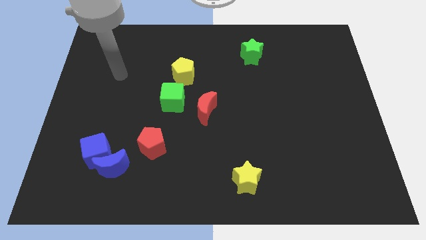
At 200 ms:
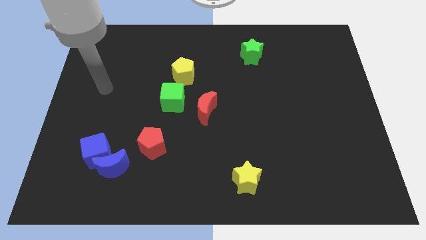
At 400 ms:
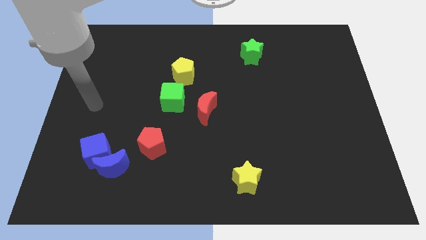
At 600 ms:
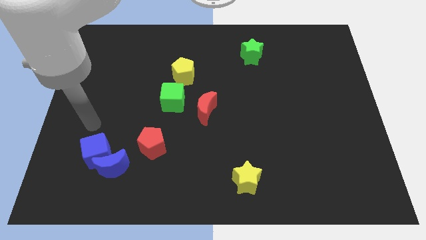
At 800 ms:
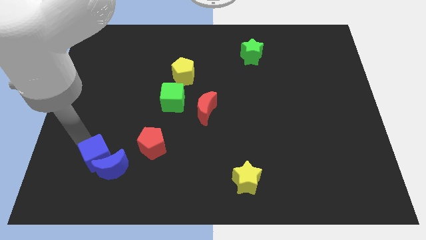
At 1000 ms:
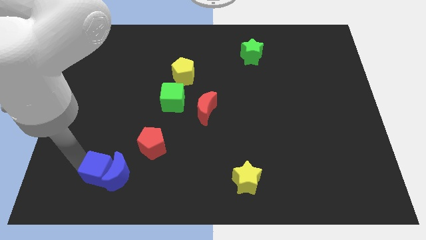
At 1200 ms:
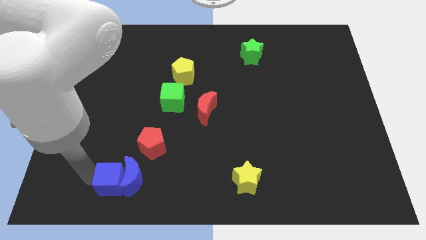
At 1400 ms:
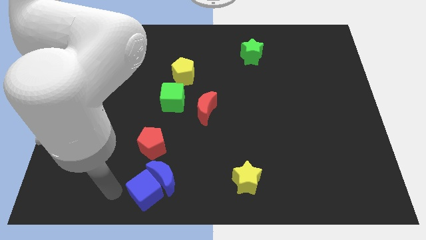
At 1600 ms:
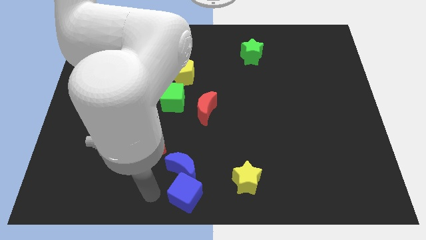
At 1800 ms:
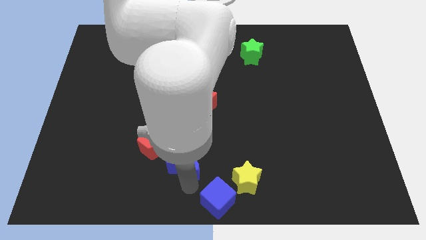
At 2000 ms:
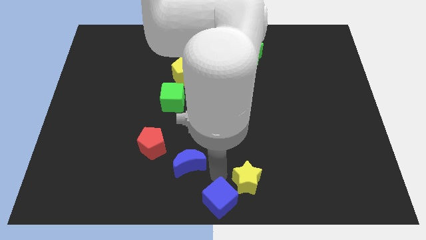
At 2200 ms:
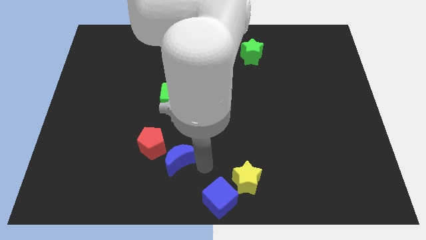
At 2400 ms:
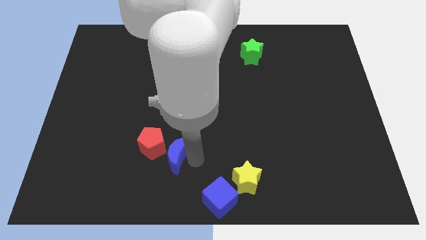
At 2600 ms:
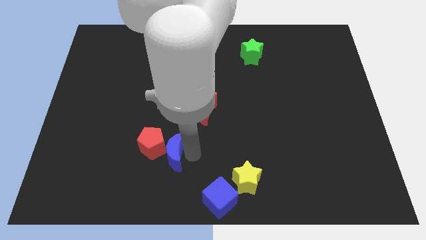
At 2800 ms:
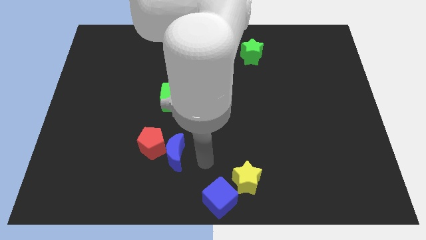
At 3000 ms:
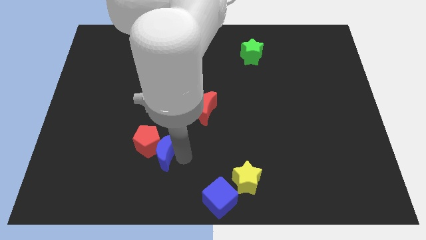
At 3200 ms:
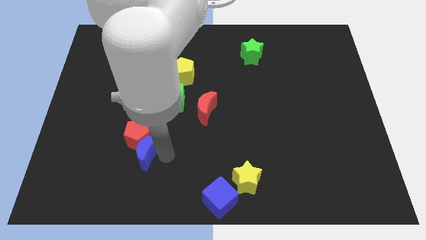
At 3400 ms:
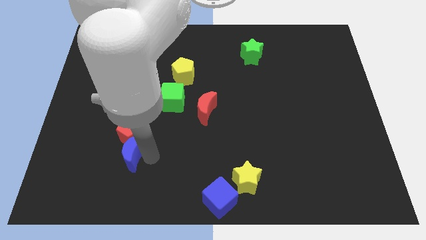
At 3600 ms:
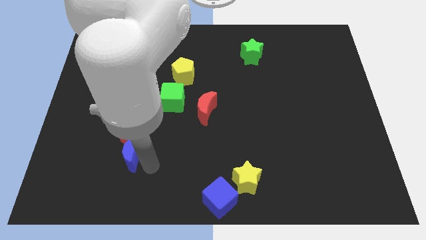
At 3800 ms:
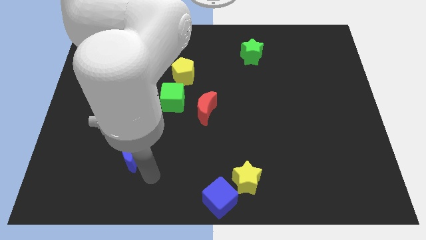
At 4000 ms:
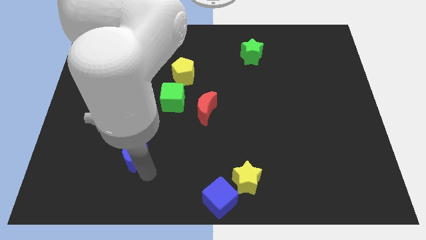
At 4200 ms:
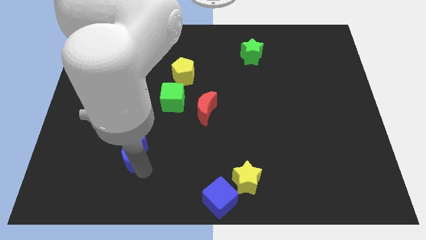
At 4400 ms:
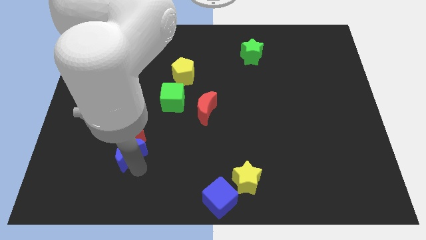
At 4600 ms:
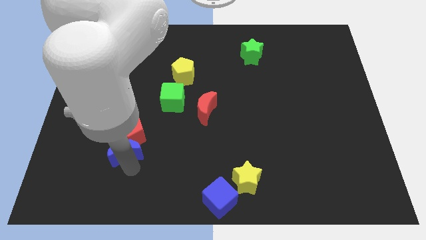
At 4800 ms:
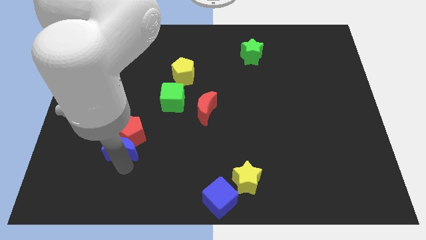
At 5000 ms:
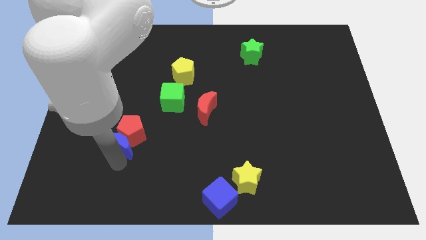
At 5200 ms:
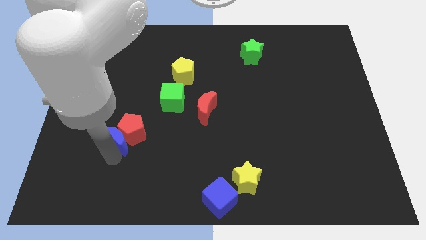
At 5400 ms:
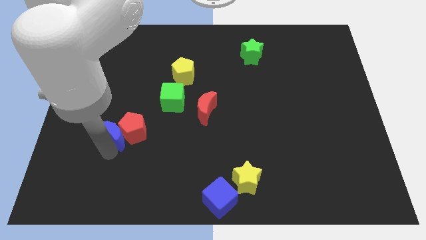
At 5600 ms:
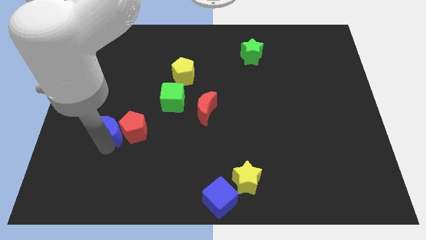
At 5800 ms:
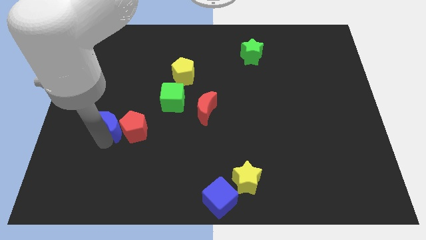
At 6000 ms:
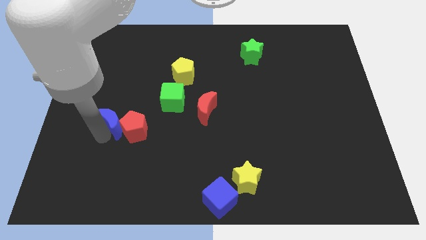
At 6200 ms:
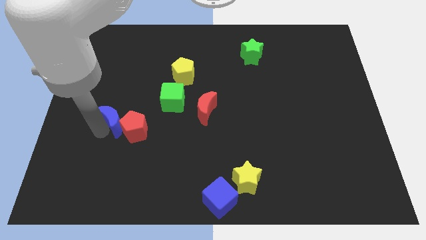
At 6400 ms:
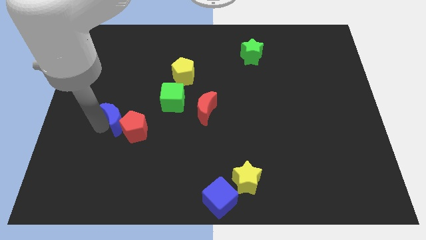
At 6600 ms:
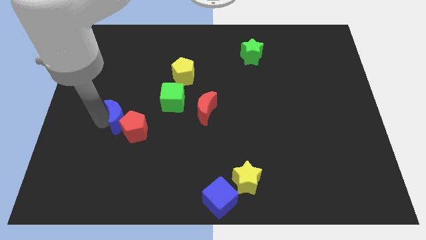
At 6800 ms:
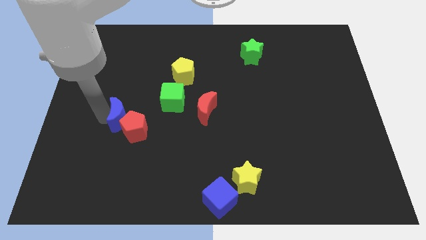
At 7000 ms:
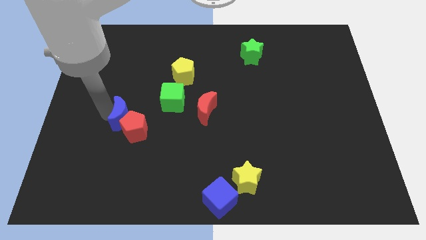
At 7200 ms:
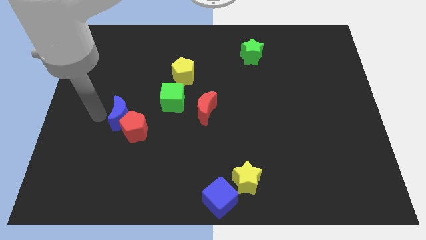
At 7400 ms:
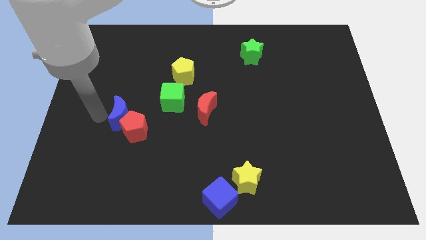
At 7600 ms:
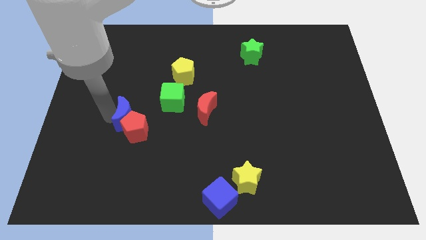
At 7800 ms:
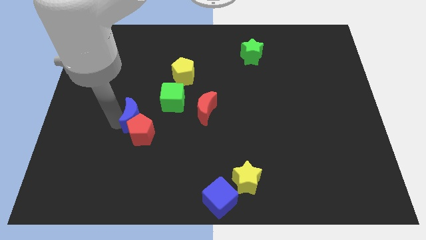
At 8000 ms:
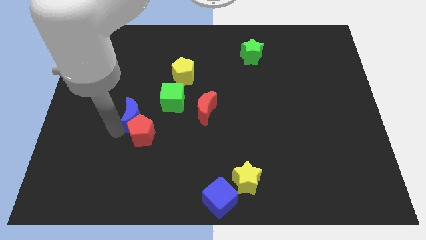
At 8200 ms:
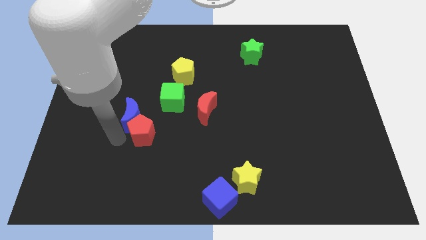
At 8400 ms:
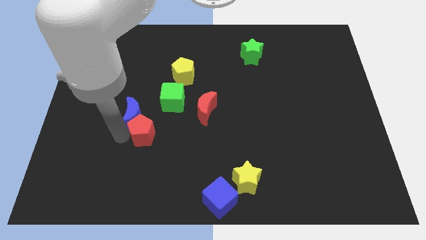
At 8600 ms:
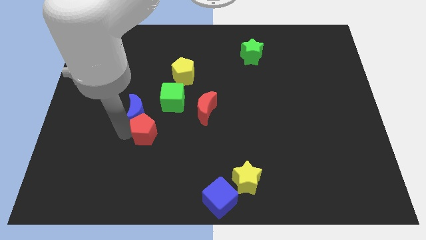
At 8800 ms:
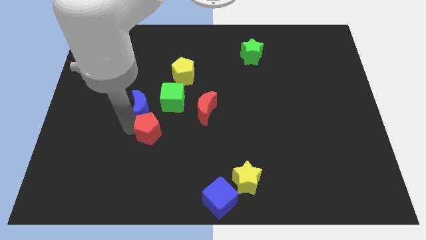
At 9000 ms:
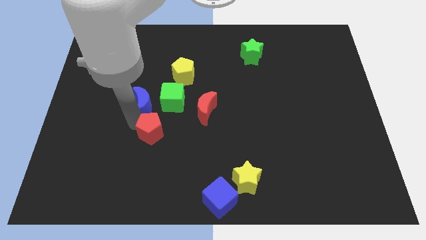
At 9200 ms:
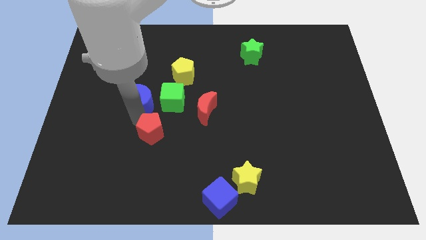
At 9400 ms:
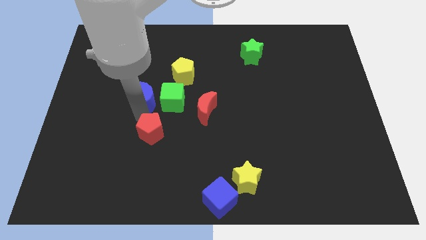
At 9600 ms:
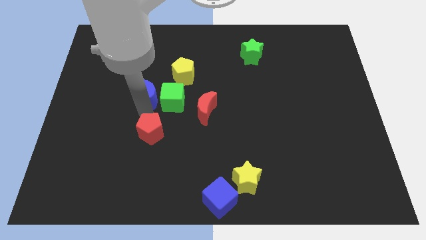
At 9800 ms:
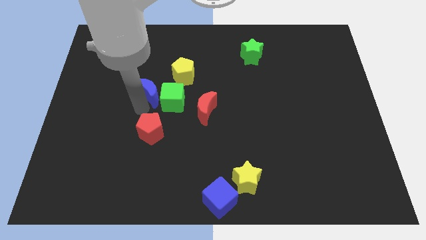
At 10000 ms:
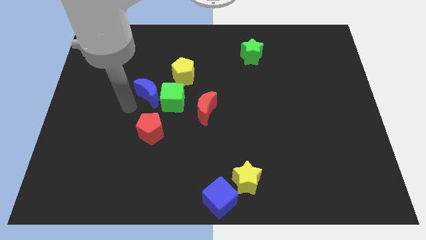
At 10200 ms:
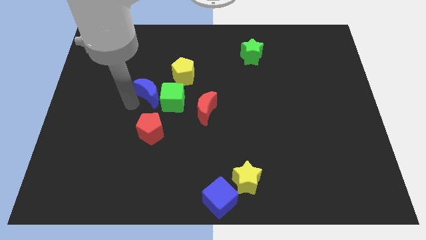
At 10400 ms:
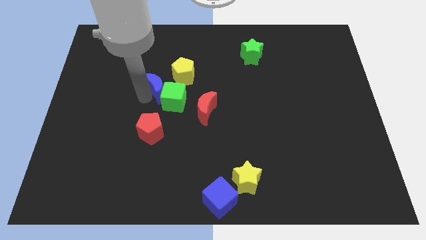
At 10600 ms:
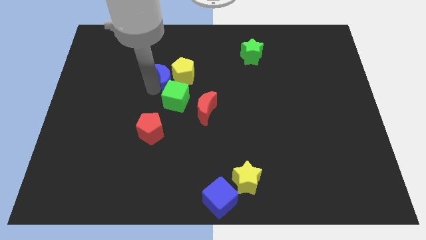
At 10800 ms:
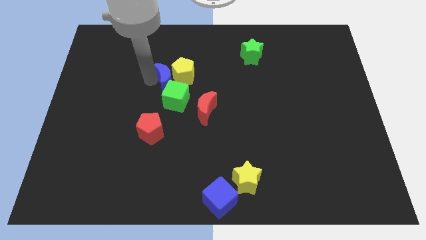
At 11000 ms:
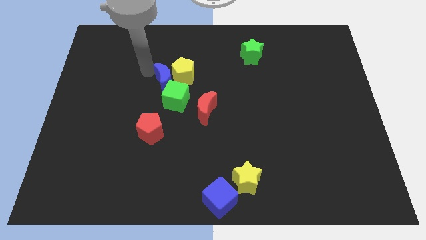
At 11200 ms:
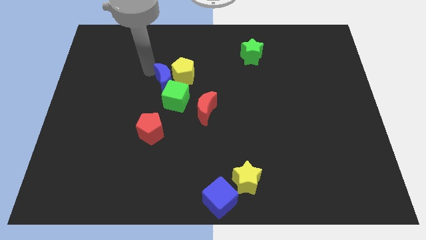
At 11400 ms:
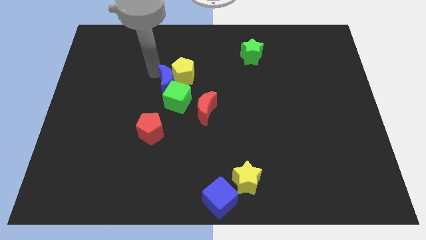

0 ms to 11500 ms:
put the blue moon diagonally up and to the left of the red moon

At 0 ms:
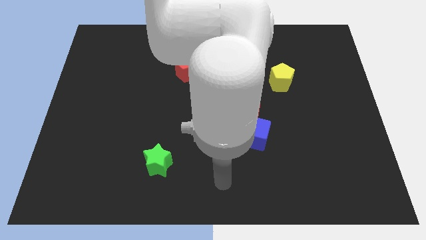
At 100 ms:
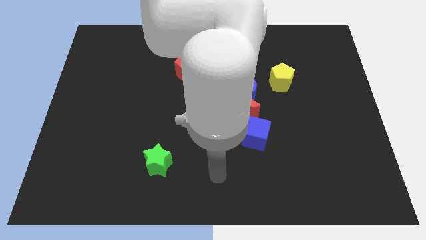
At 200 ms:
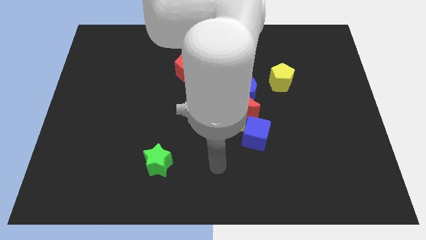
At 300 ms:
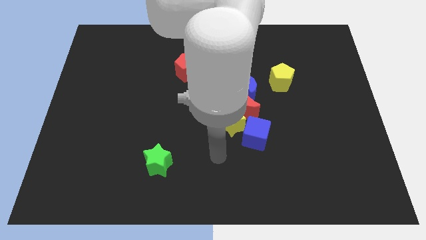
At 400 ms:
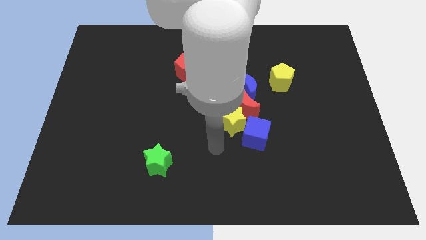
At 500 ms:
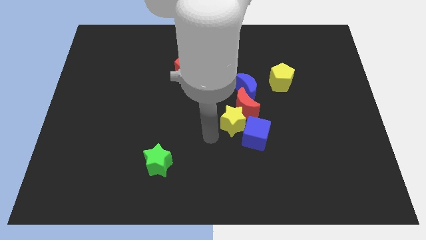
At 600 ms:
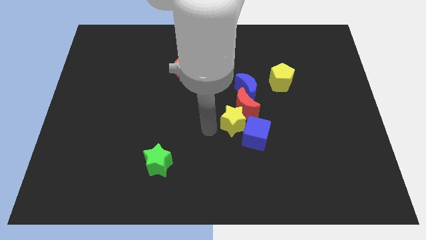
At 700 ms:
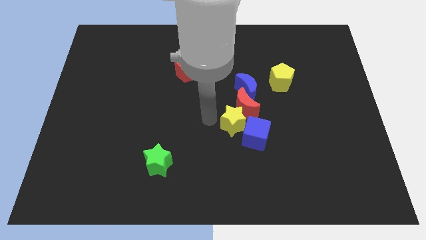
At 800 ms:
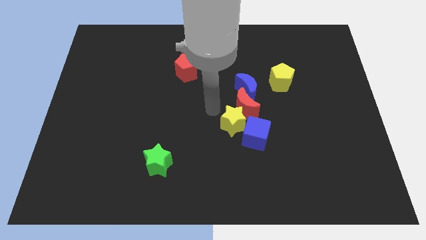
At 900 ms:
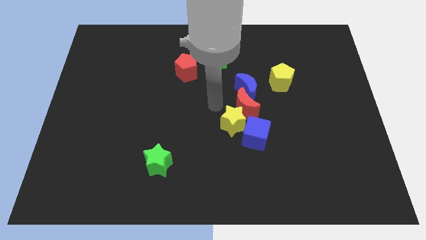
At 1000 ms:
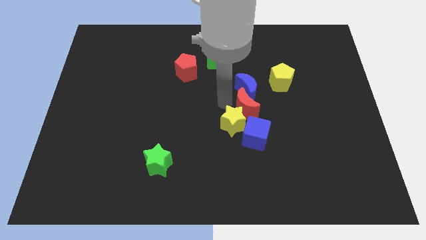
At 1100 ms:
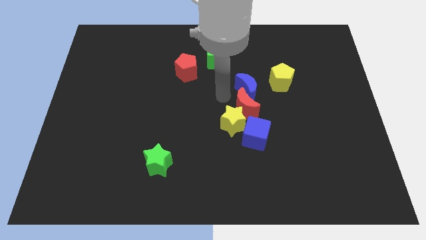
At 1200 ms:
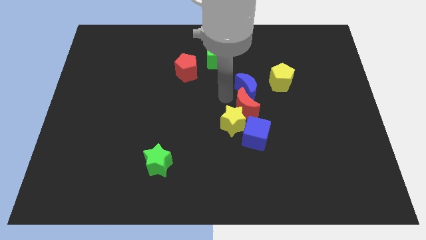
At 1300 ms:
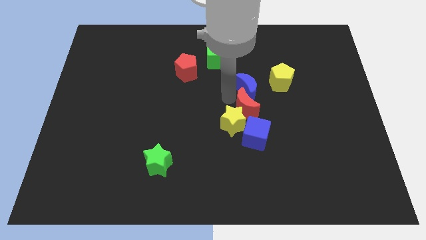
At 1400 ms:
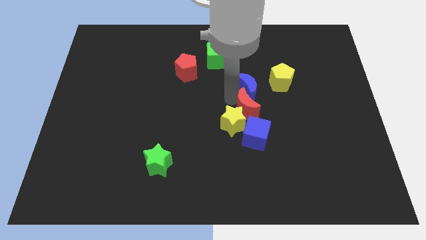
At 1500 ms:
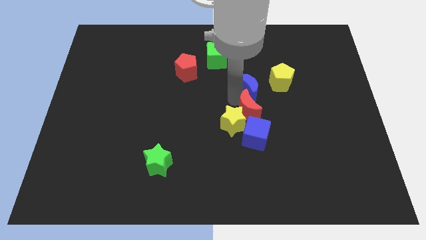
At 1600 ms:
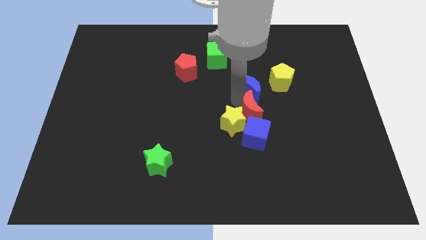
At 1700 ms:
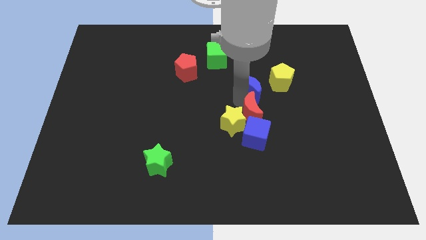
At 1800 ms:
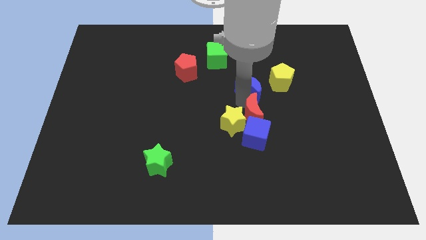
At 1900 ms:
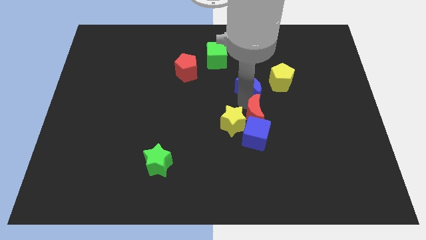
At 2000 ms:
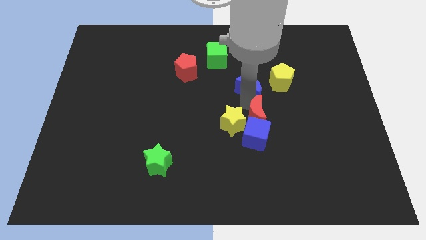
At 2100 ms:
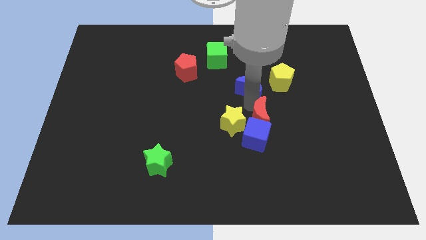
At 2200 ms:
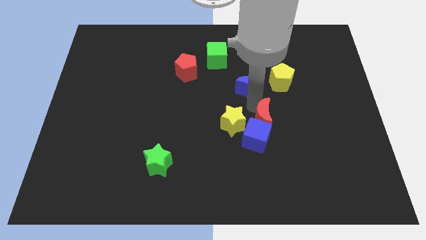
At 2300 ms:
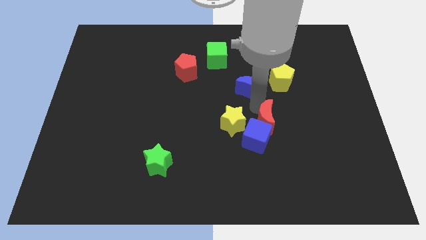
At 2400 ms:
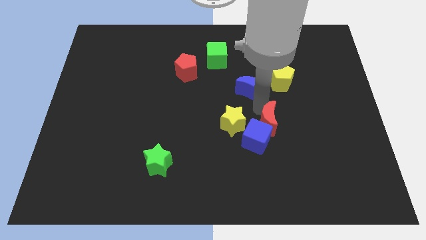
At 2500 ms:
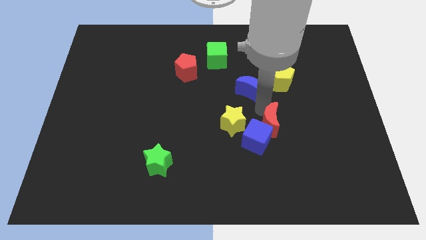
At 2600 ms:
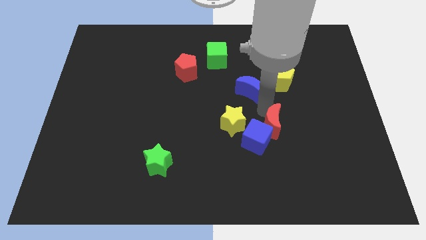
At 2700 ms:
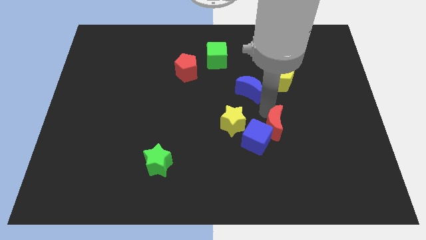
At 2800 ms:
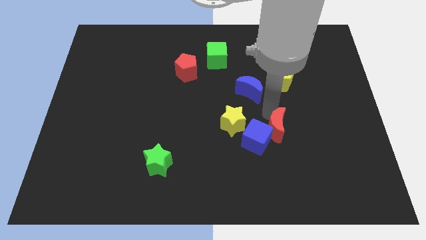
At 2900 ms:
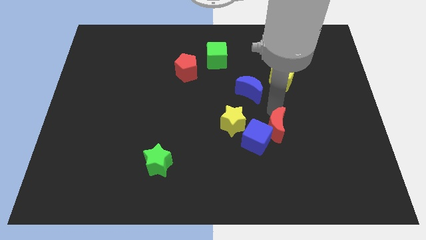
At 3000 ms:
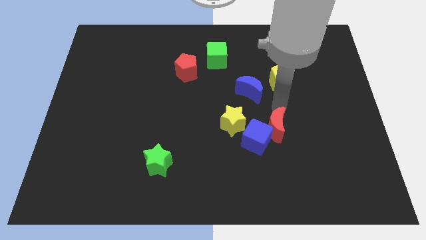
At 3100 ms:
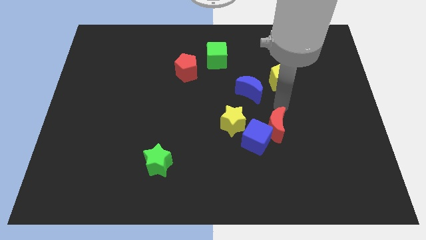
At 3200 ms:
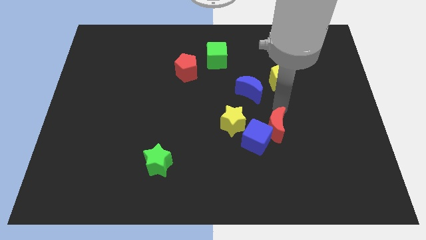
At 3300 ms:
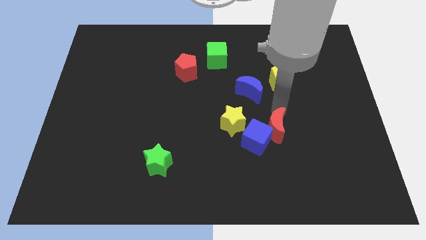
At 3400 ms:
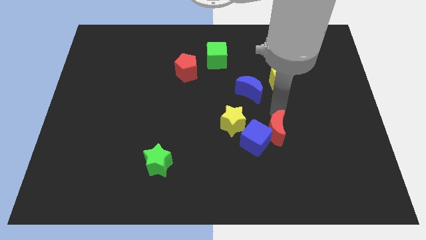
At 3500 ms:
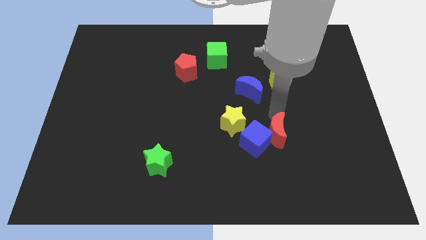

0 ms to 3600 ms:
push the red moon diagonally down and to the right of the yellow star
